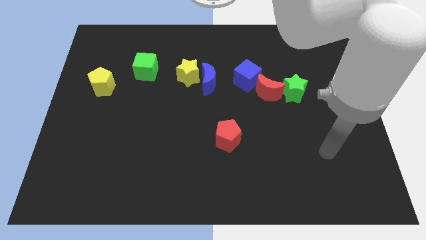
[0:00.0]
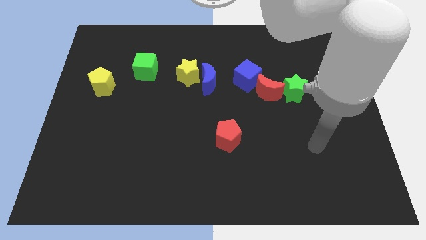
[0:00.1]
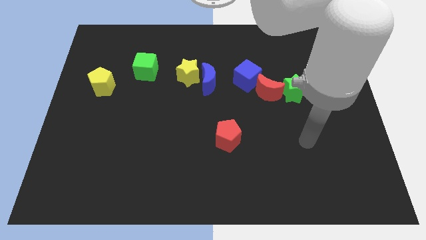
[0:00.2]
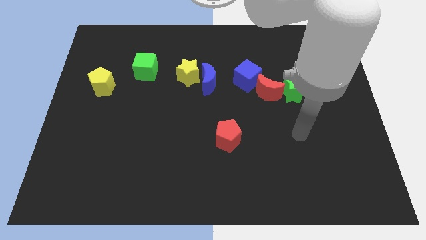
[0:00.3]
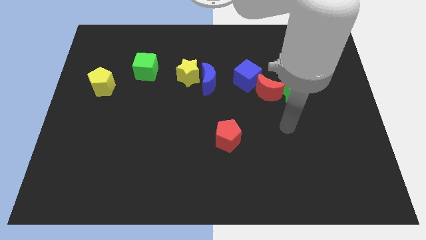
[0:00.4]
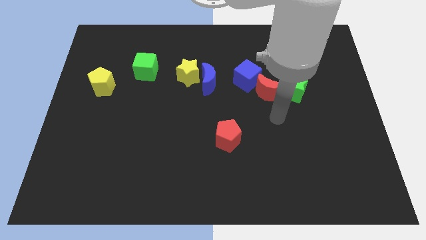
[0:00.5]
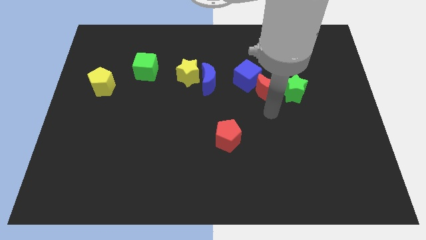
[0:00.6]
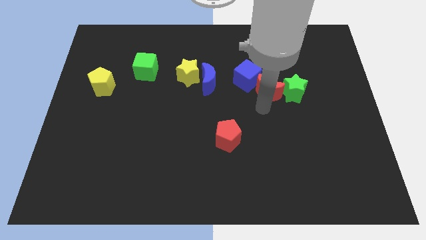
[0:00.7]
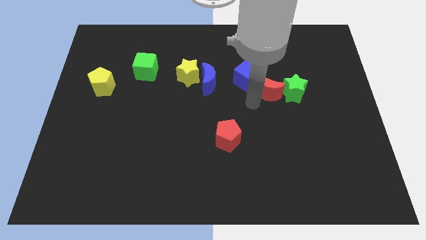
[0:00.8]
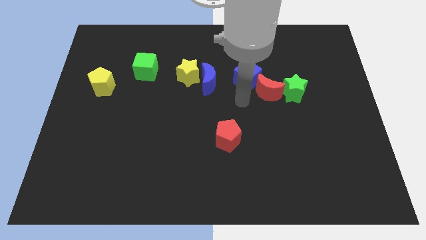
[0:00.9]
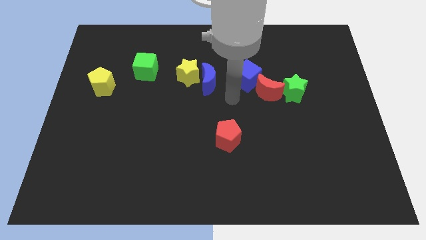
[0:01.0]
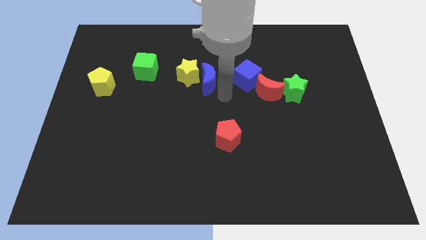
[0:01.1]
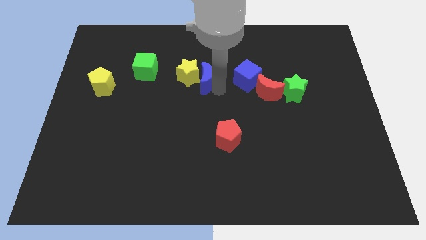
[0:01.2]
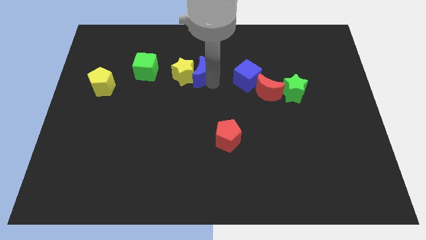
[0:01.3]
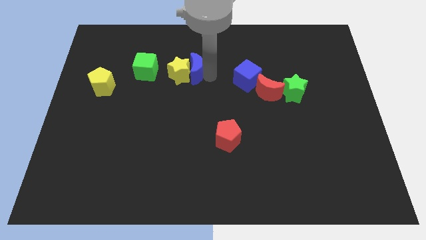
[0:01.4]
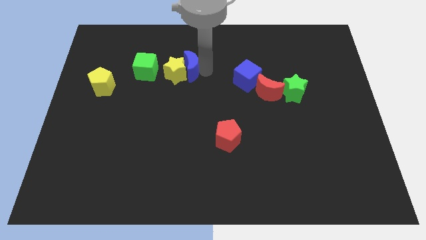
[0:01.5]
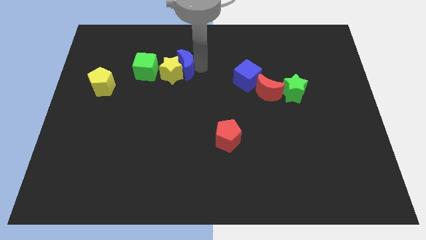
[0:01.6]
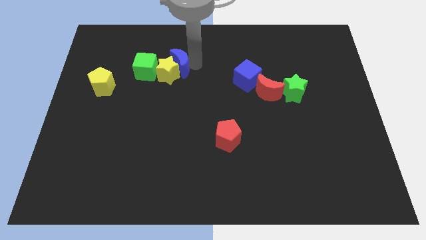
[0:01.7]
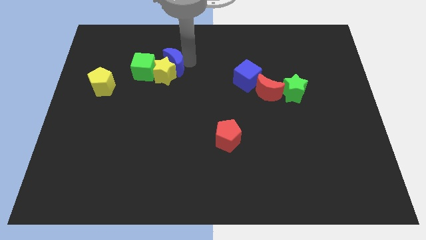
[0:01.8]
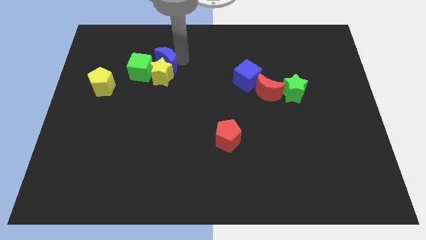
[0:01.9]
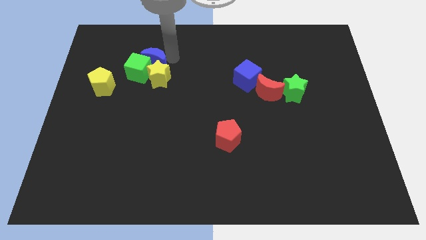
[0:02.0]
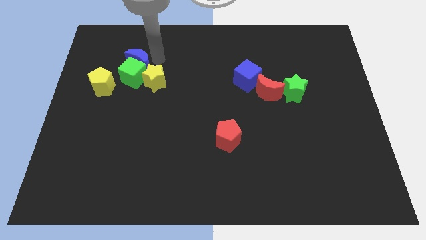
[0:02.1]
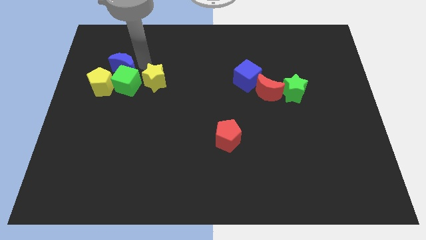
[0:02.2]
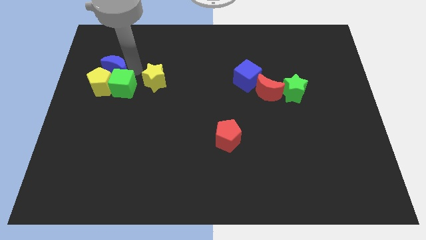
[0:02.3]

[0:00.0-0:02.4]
move the yellow star away from the blue moon

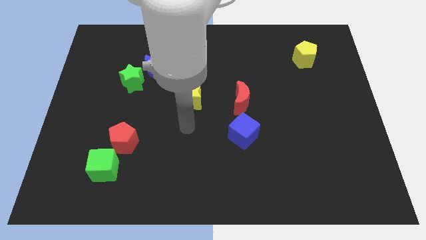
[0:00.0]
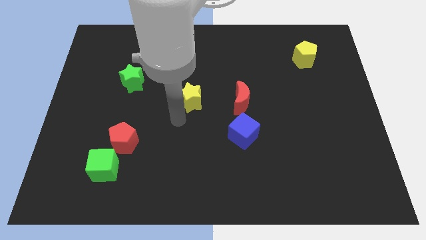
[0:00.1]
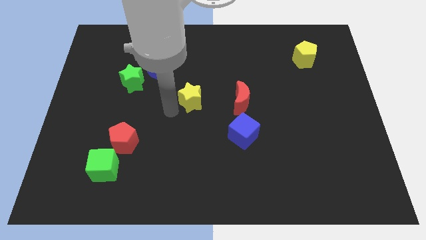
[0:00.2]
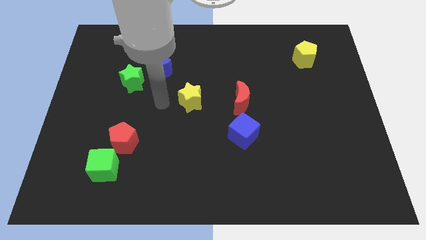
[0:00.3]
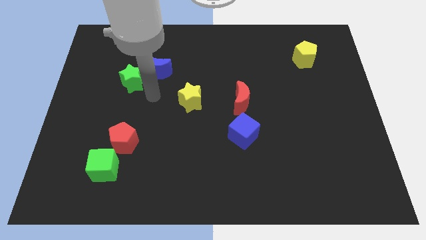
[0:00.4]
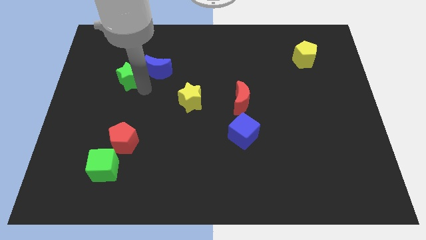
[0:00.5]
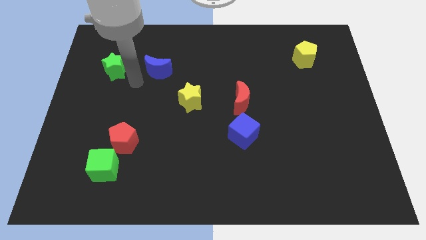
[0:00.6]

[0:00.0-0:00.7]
pull the blue moon apart from the green star

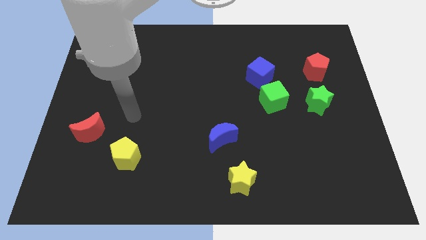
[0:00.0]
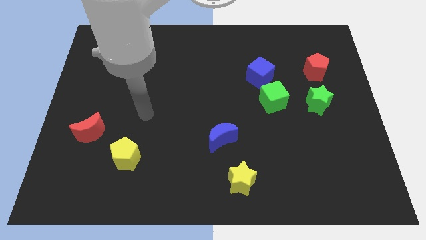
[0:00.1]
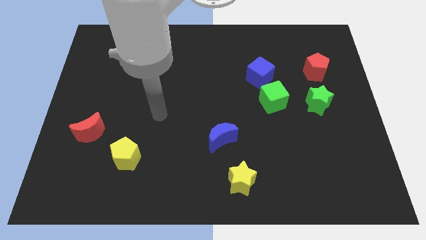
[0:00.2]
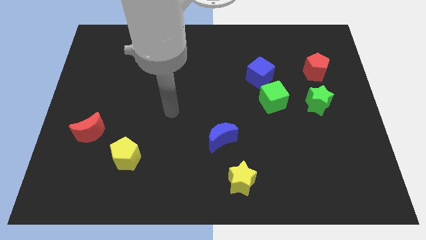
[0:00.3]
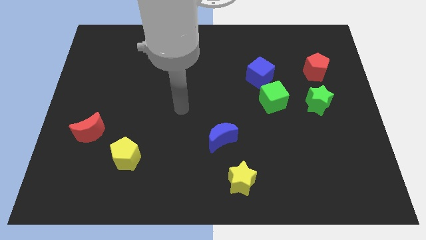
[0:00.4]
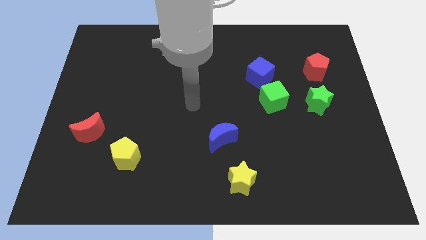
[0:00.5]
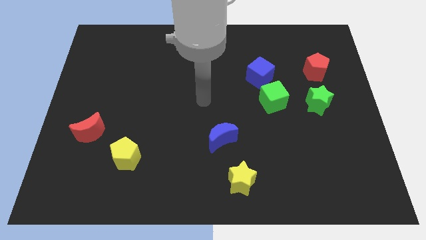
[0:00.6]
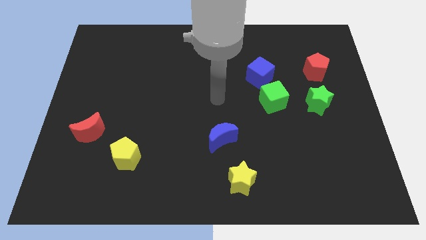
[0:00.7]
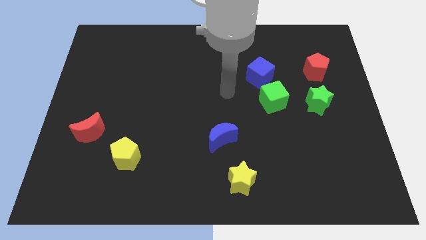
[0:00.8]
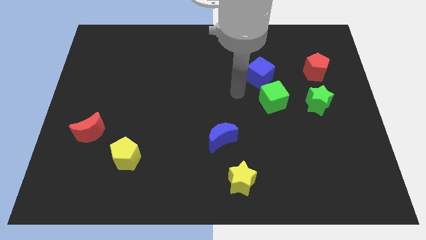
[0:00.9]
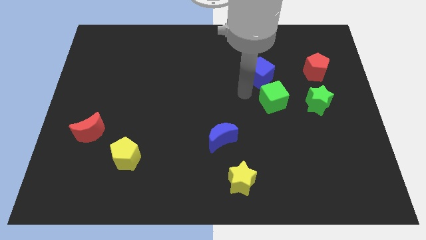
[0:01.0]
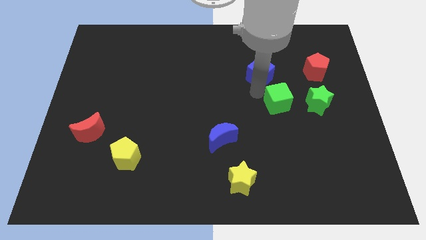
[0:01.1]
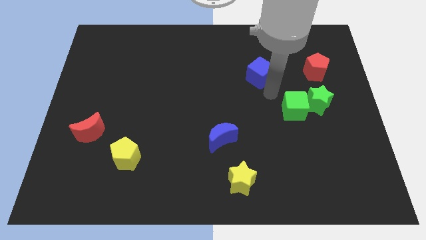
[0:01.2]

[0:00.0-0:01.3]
move the blue cube away from the green cube

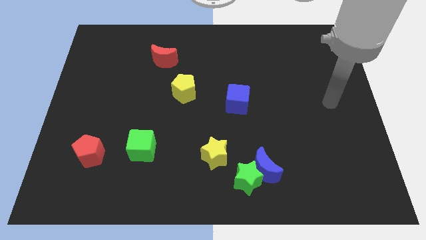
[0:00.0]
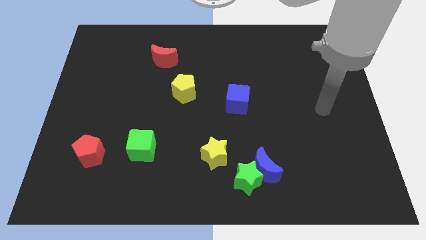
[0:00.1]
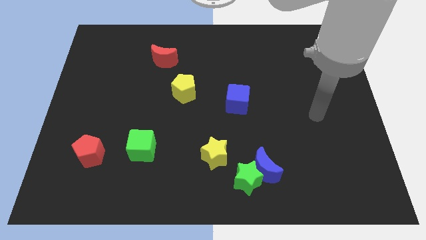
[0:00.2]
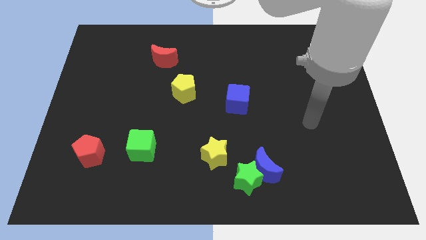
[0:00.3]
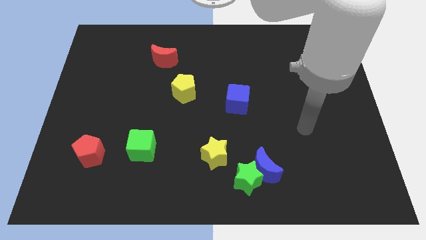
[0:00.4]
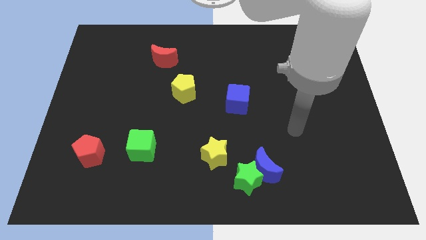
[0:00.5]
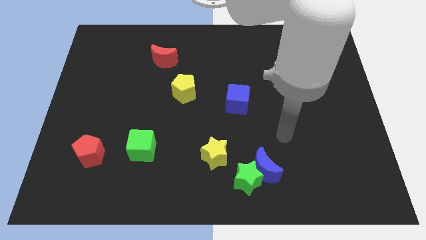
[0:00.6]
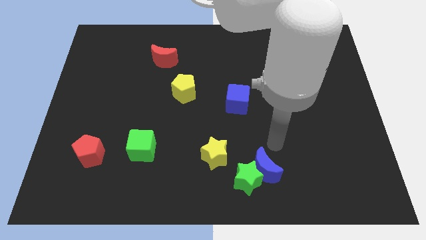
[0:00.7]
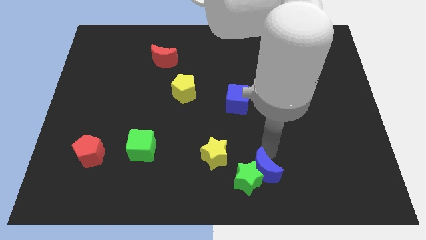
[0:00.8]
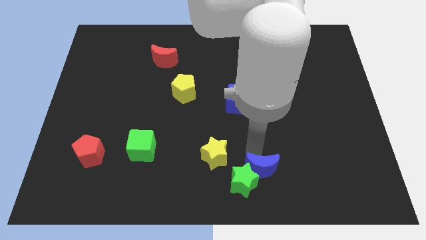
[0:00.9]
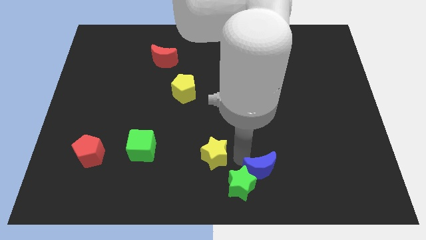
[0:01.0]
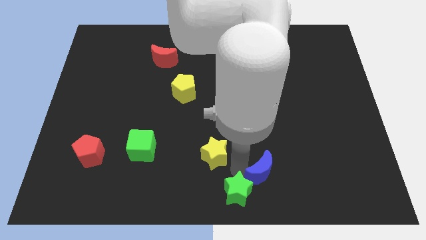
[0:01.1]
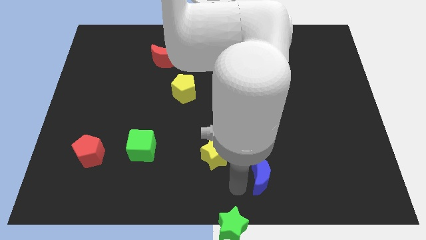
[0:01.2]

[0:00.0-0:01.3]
separate the blue moon from the green star

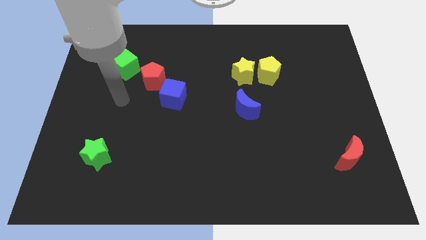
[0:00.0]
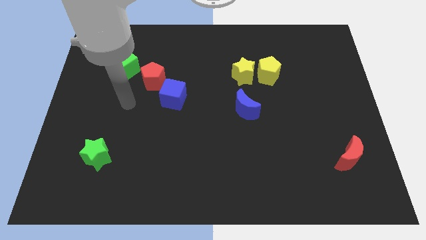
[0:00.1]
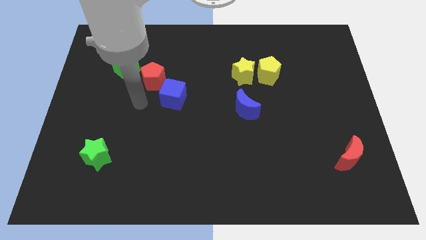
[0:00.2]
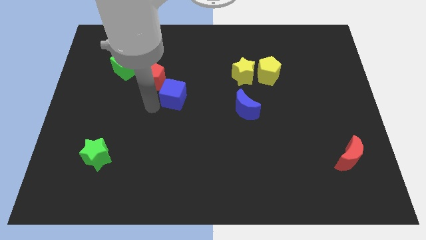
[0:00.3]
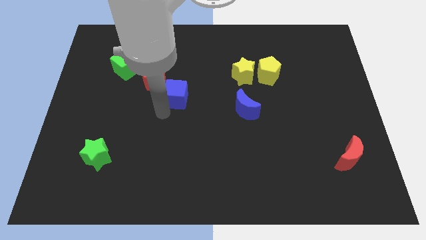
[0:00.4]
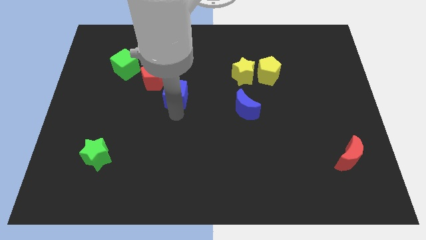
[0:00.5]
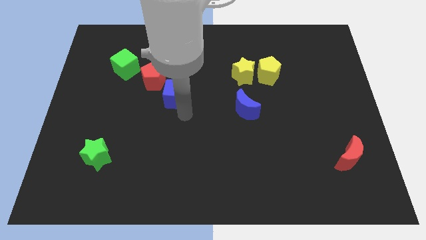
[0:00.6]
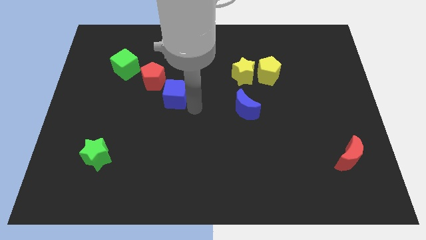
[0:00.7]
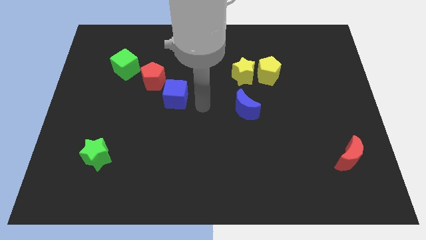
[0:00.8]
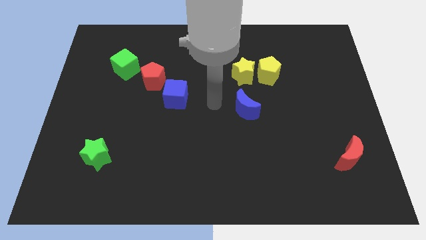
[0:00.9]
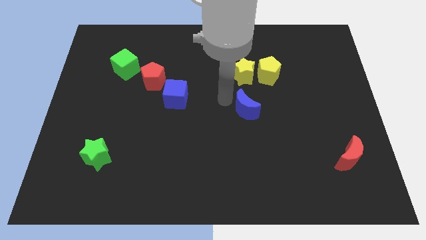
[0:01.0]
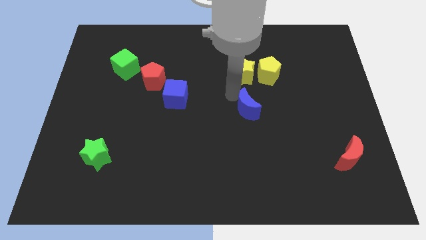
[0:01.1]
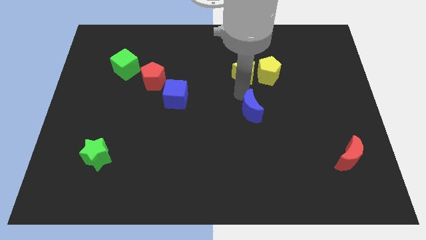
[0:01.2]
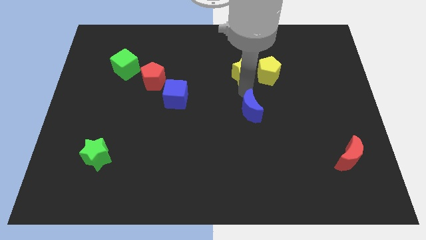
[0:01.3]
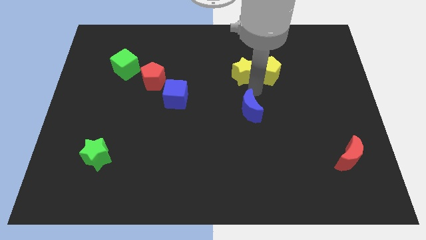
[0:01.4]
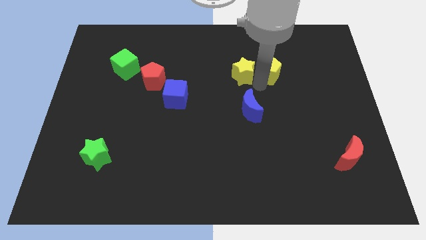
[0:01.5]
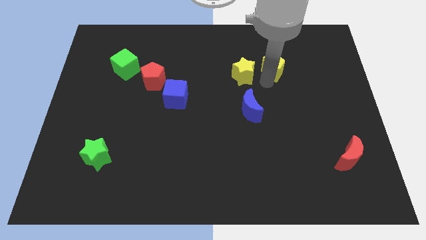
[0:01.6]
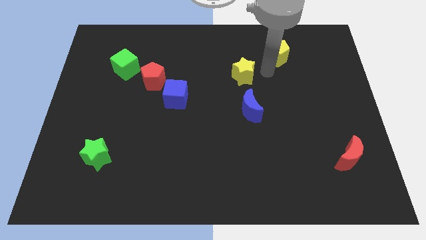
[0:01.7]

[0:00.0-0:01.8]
move the yellow star away from the yellow pentagon

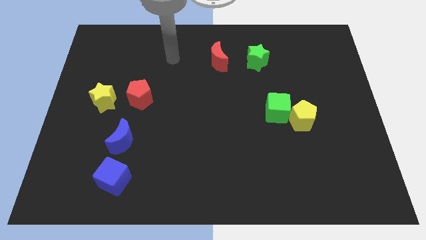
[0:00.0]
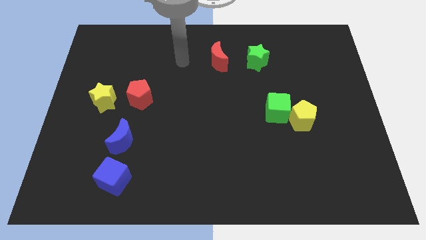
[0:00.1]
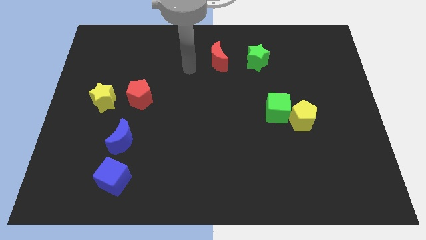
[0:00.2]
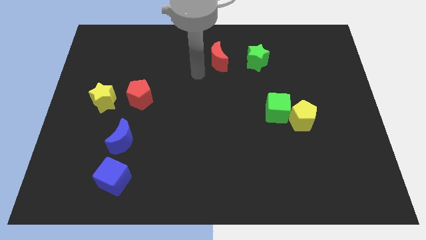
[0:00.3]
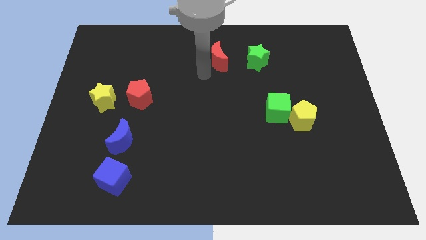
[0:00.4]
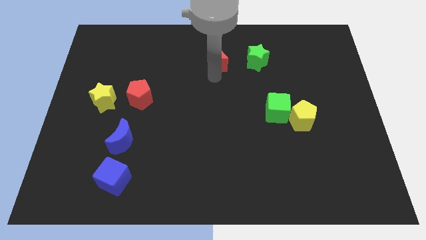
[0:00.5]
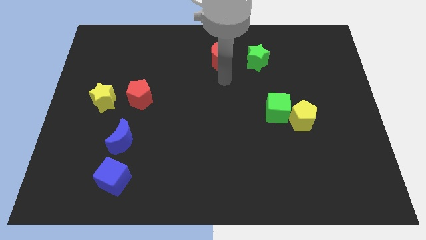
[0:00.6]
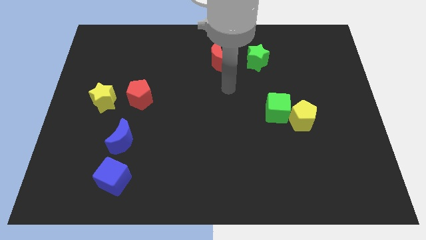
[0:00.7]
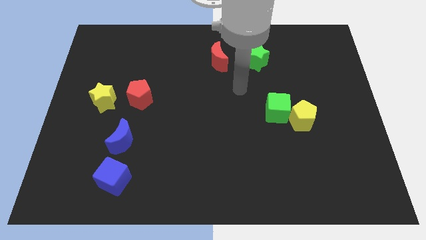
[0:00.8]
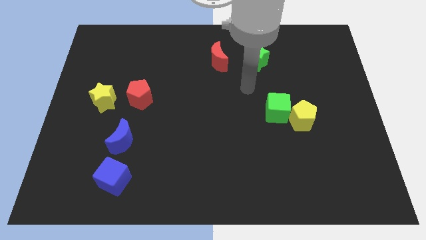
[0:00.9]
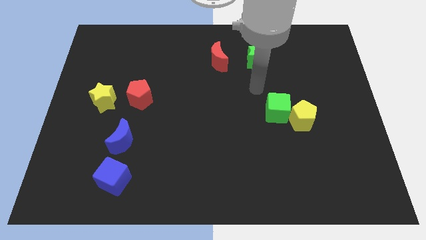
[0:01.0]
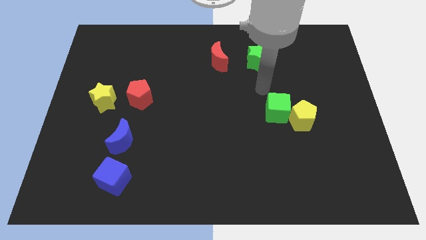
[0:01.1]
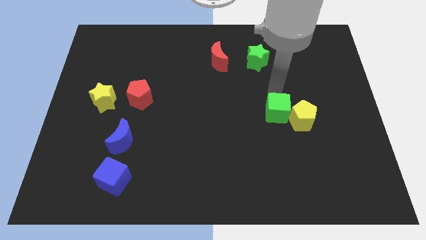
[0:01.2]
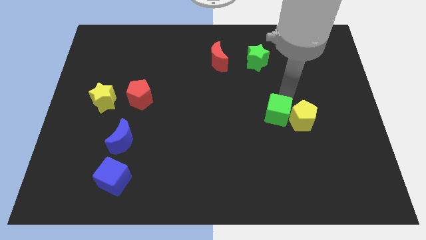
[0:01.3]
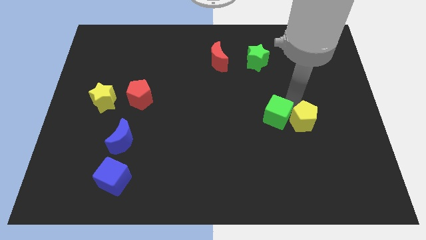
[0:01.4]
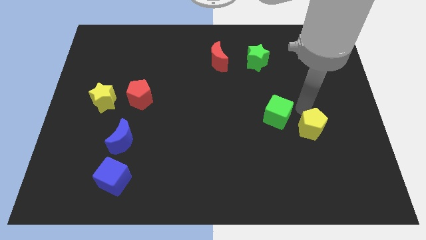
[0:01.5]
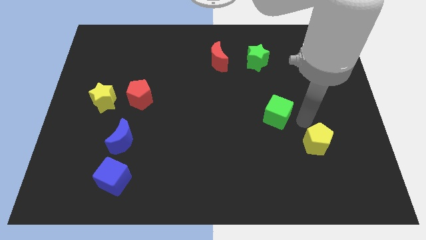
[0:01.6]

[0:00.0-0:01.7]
separate the green cube from the yellow pentagon
